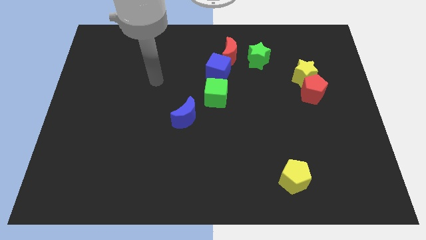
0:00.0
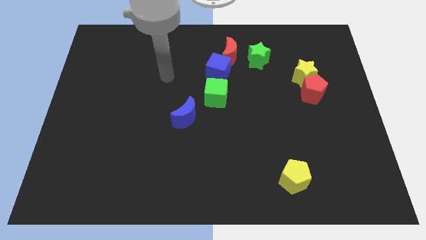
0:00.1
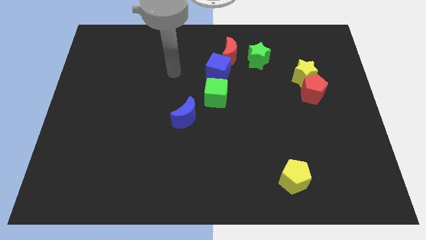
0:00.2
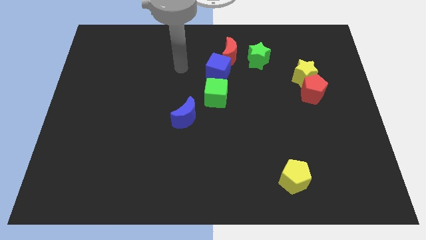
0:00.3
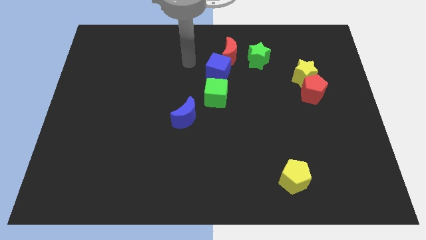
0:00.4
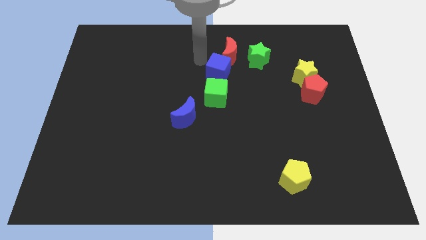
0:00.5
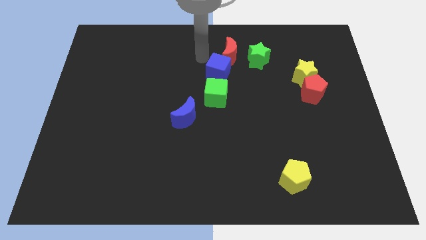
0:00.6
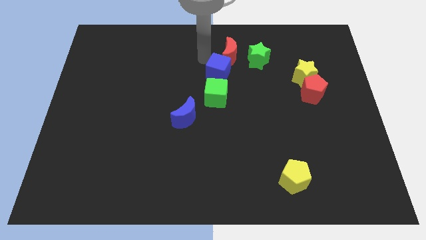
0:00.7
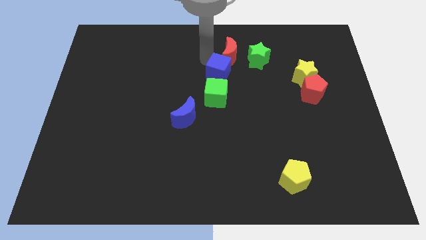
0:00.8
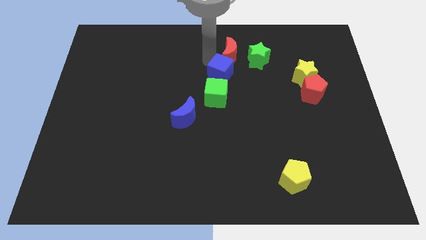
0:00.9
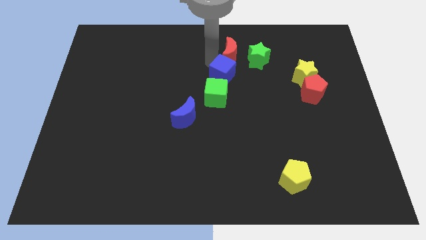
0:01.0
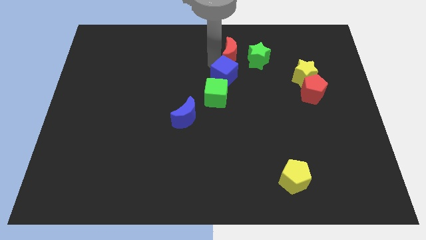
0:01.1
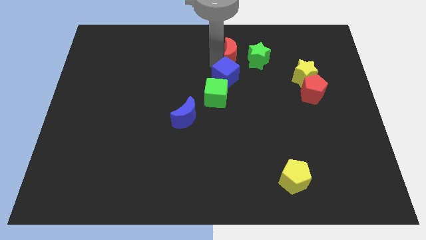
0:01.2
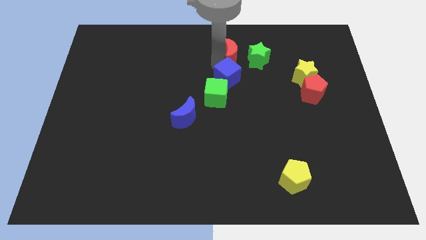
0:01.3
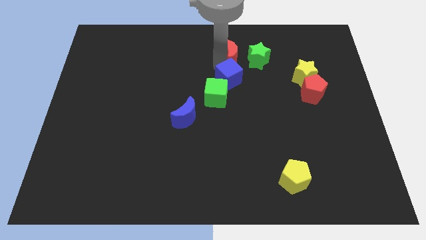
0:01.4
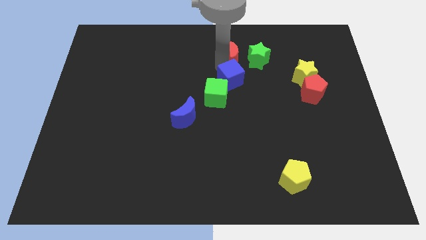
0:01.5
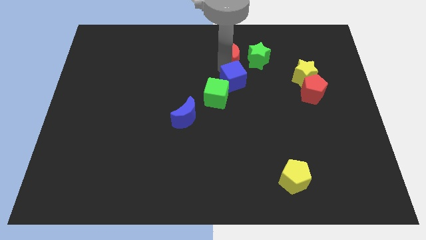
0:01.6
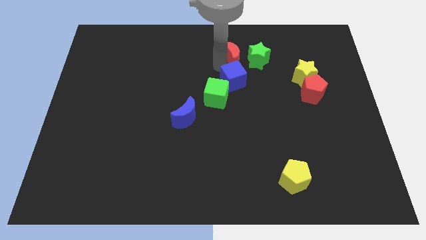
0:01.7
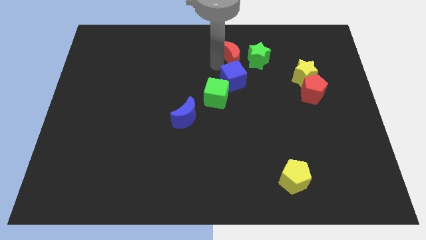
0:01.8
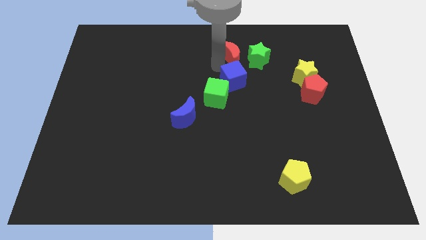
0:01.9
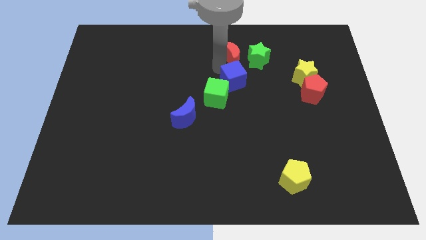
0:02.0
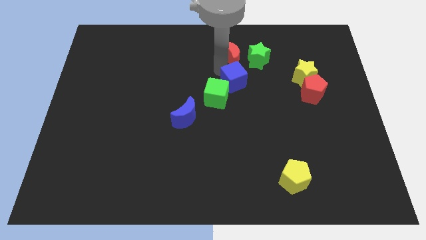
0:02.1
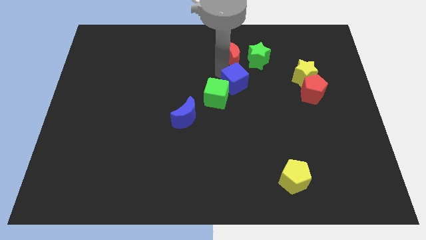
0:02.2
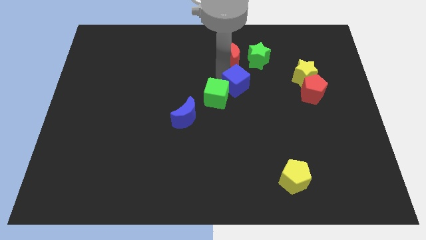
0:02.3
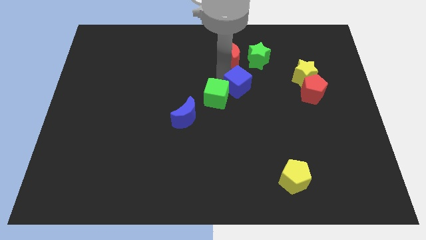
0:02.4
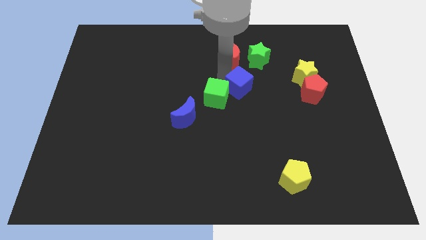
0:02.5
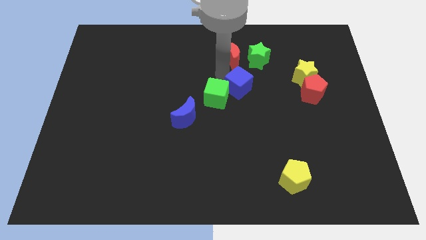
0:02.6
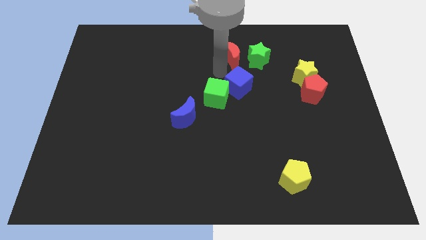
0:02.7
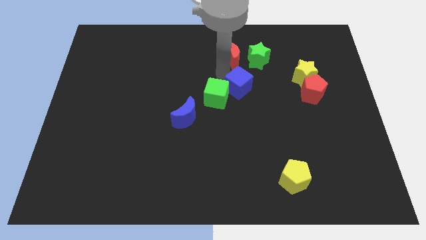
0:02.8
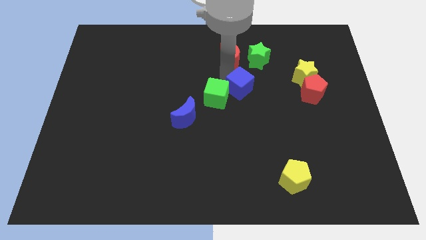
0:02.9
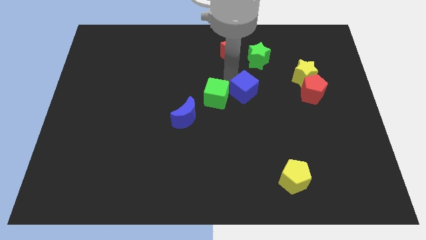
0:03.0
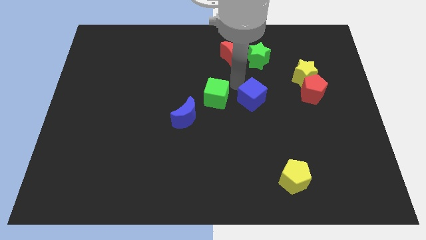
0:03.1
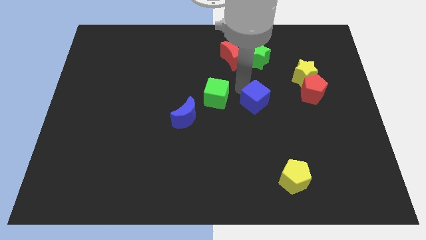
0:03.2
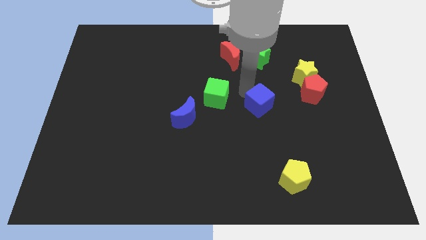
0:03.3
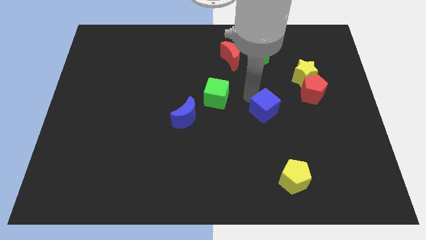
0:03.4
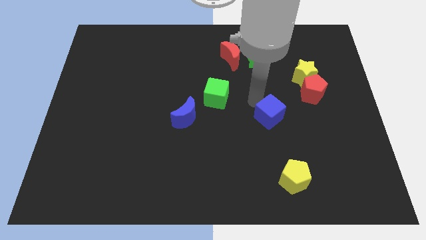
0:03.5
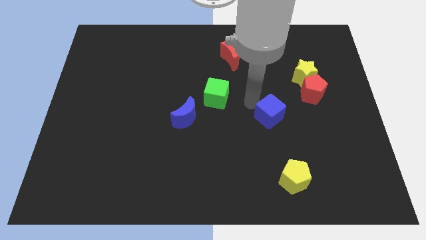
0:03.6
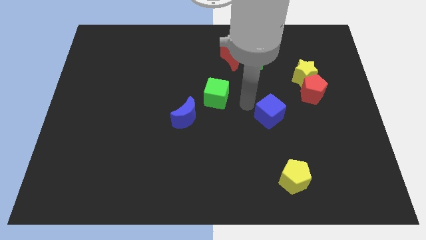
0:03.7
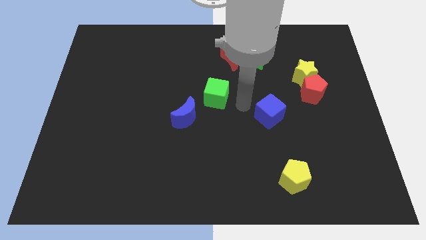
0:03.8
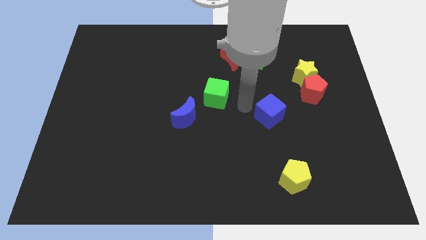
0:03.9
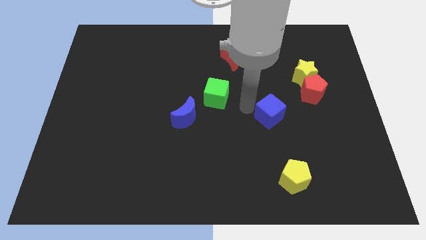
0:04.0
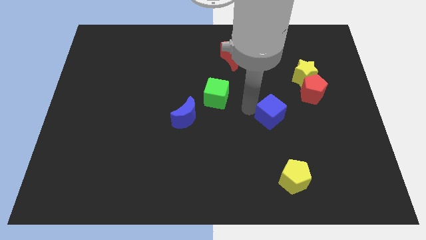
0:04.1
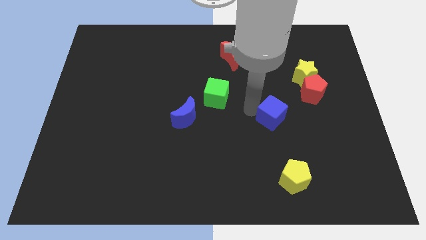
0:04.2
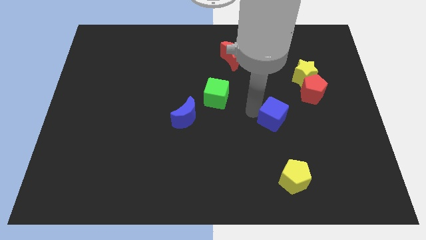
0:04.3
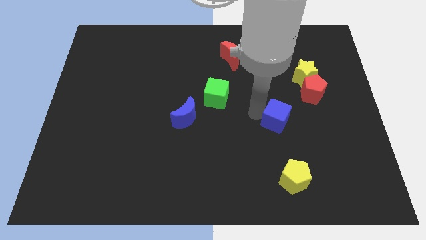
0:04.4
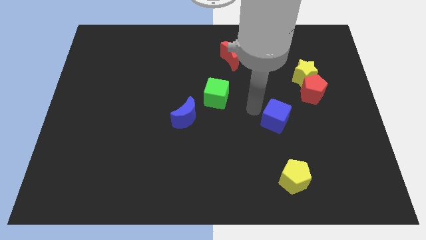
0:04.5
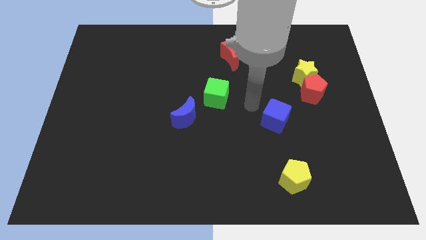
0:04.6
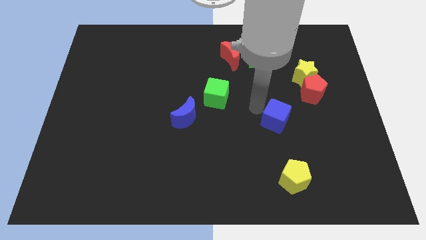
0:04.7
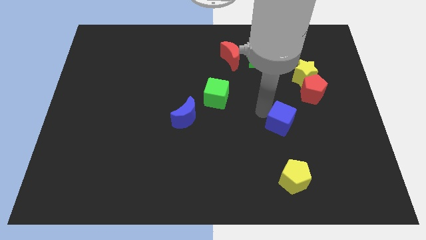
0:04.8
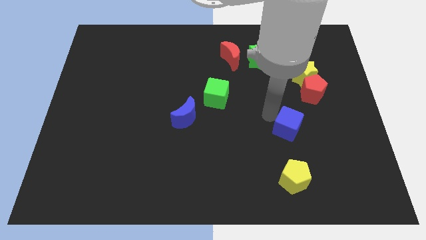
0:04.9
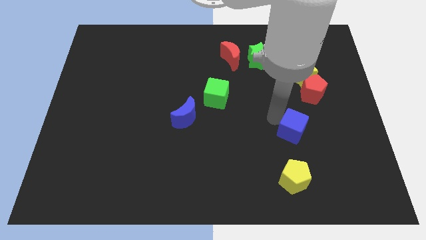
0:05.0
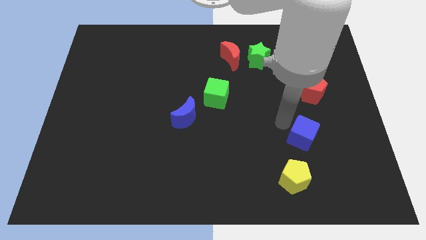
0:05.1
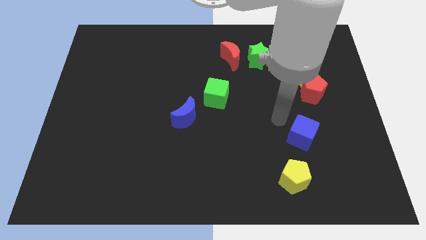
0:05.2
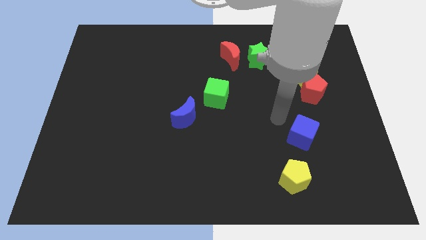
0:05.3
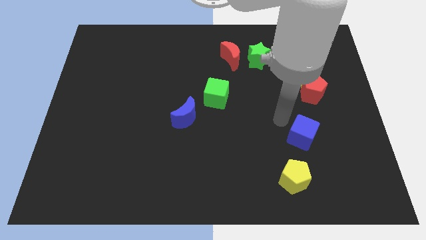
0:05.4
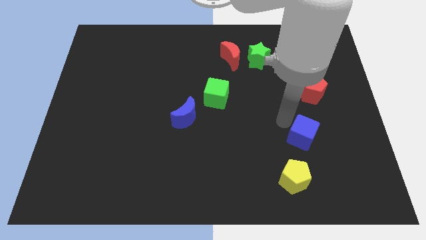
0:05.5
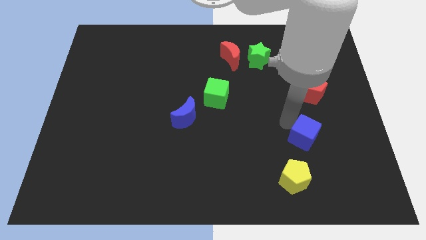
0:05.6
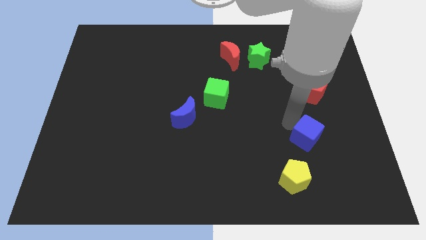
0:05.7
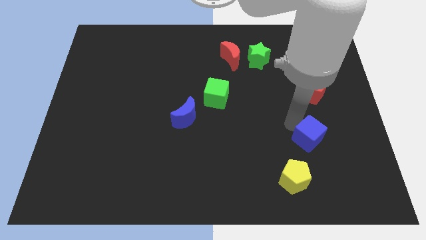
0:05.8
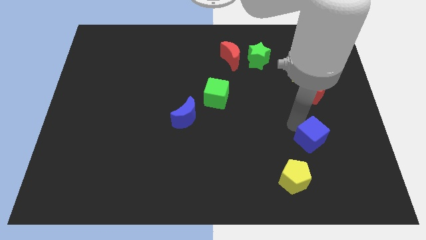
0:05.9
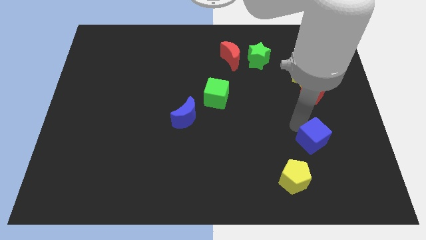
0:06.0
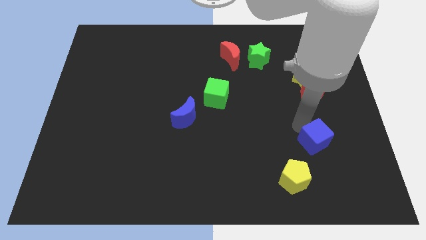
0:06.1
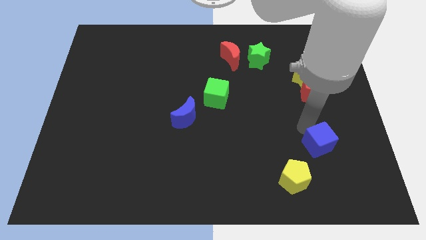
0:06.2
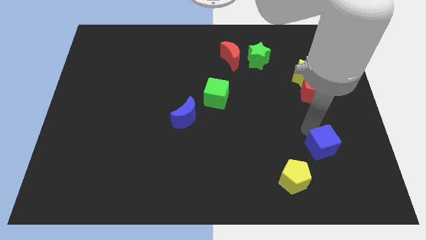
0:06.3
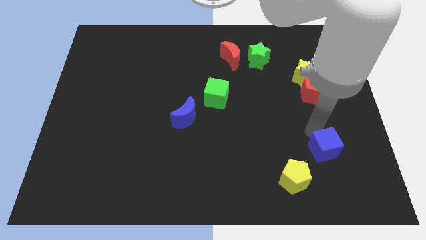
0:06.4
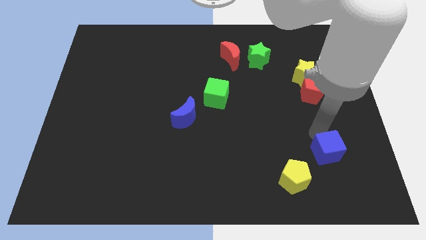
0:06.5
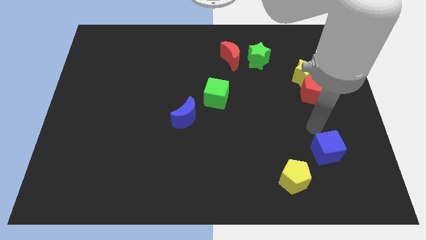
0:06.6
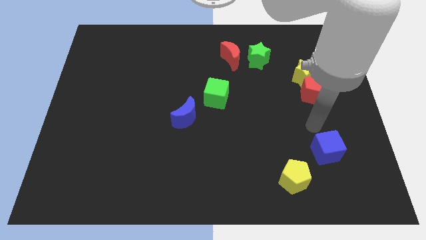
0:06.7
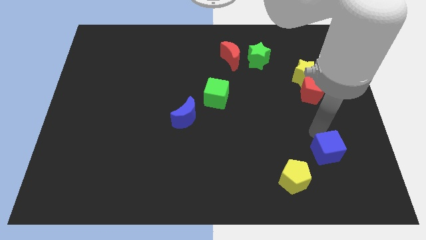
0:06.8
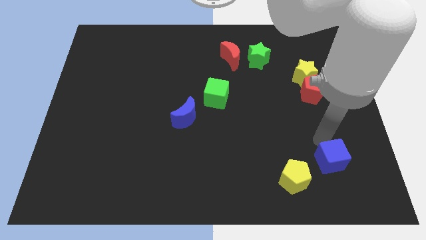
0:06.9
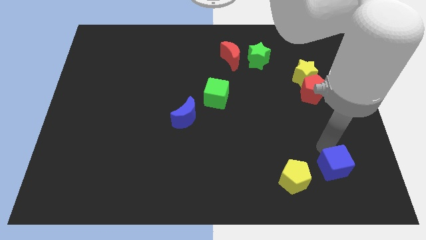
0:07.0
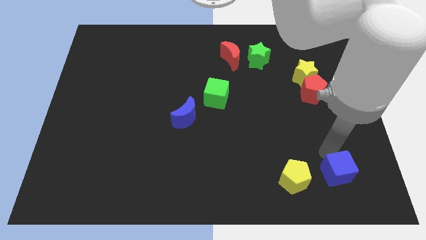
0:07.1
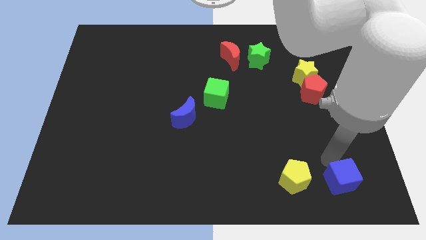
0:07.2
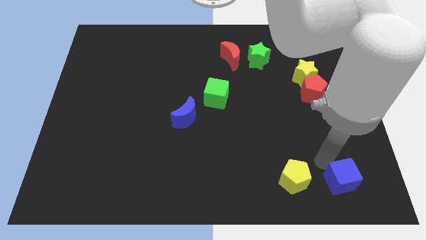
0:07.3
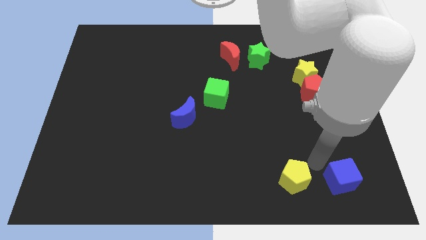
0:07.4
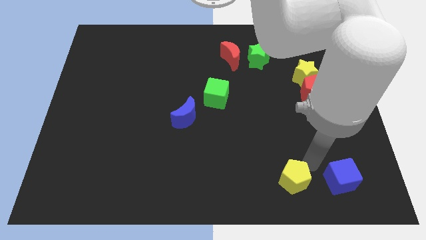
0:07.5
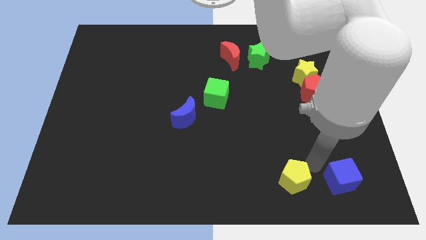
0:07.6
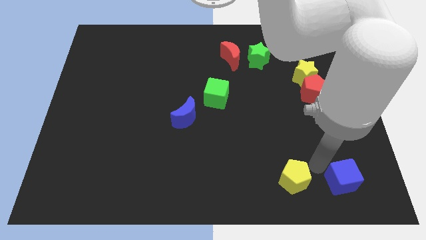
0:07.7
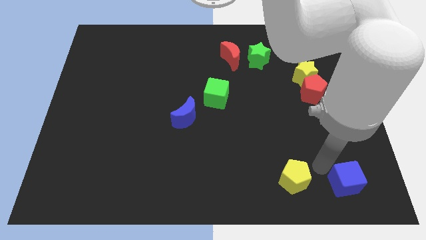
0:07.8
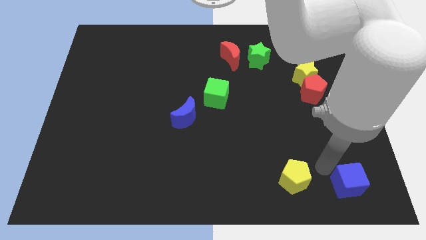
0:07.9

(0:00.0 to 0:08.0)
push the blue cube to the bottom right of the board

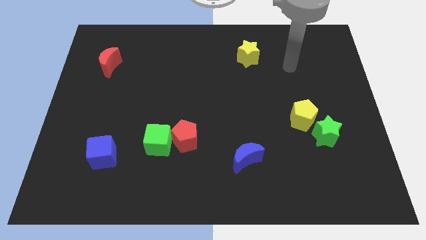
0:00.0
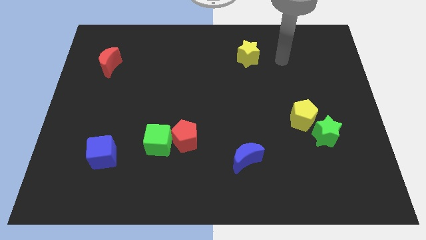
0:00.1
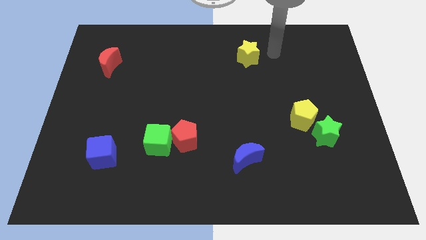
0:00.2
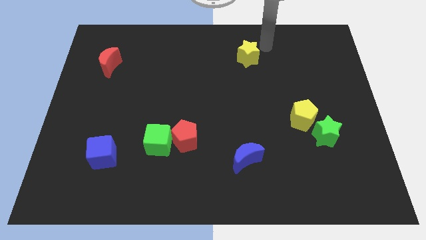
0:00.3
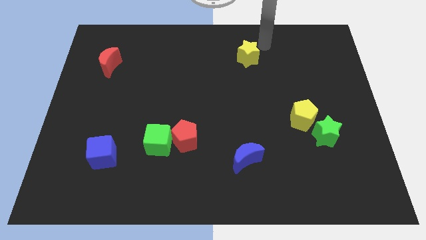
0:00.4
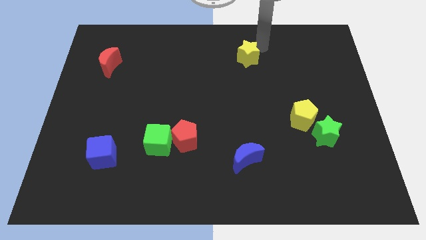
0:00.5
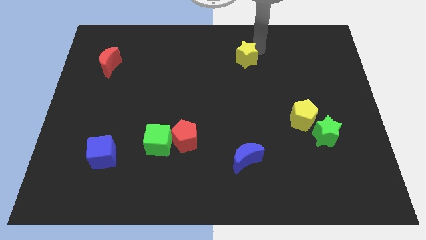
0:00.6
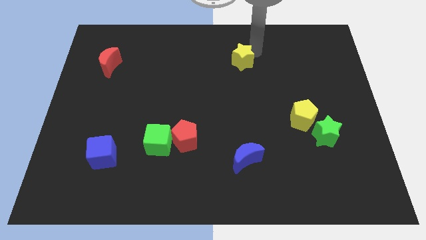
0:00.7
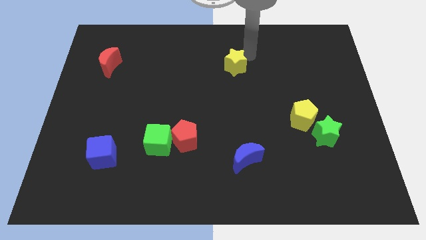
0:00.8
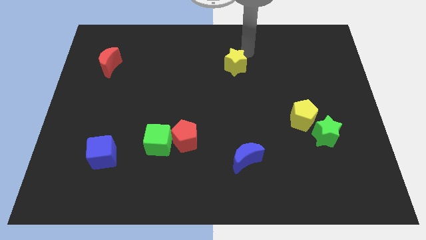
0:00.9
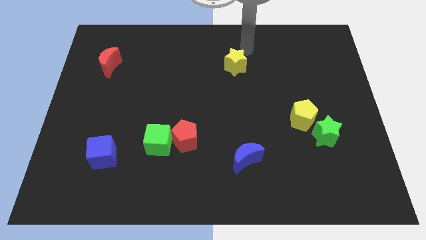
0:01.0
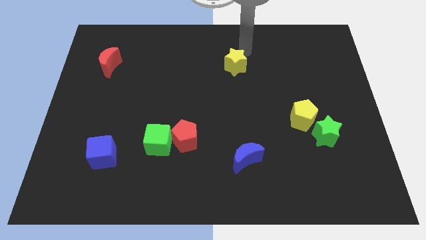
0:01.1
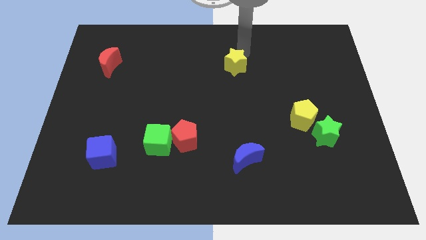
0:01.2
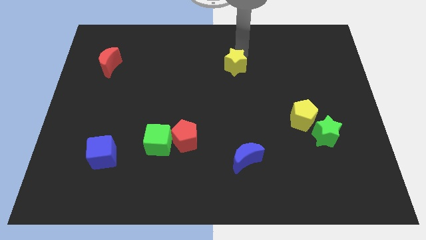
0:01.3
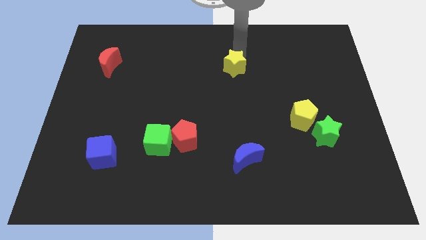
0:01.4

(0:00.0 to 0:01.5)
push the yellow star to the middle of the board
